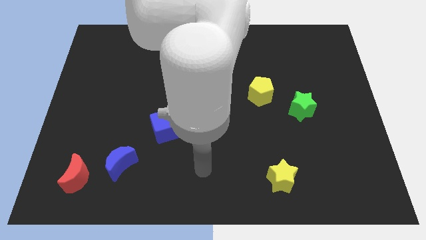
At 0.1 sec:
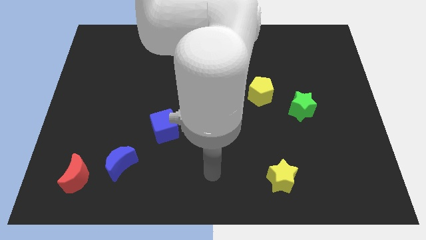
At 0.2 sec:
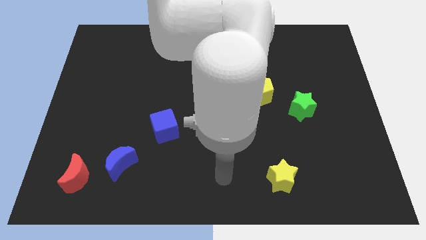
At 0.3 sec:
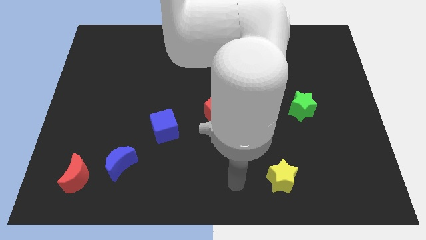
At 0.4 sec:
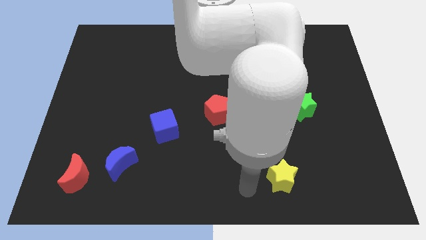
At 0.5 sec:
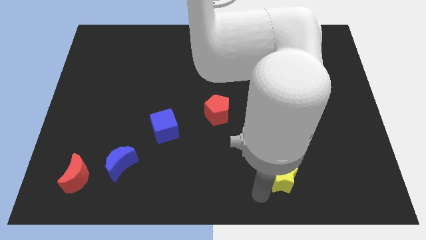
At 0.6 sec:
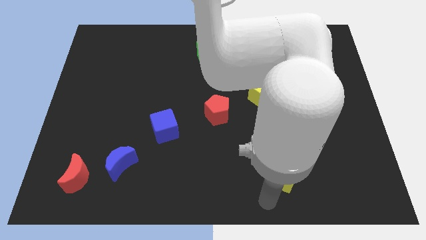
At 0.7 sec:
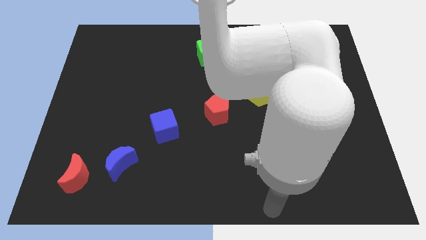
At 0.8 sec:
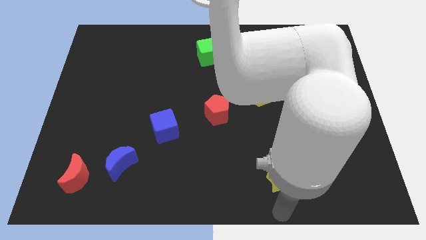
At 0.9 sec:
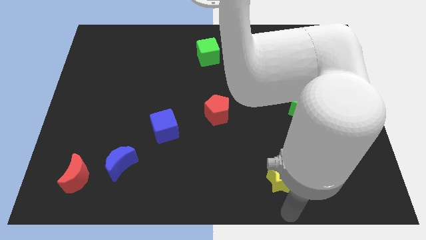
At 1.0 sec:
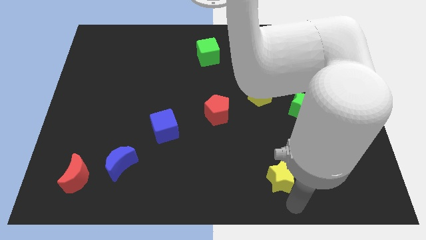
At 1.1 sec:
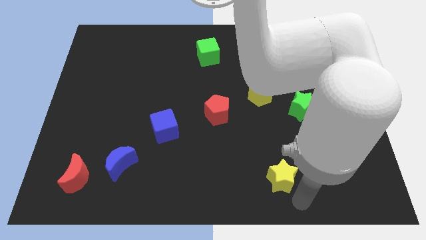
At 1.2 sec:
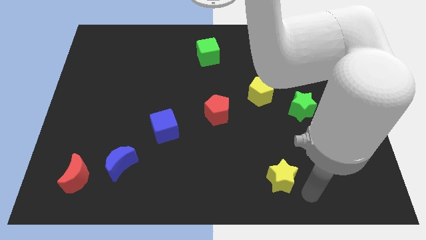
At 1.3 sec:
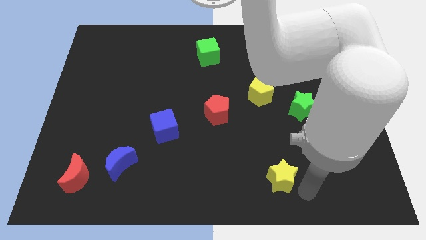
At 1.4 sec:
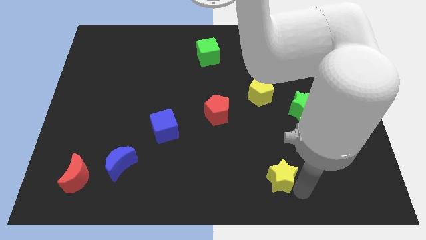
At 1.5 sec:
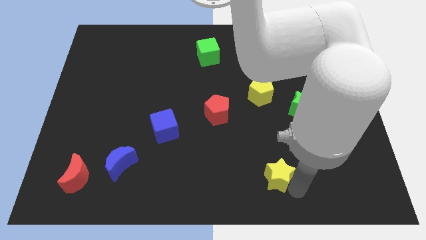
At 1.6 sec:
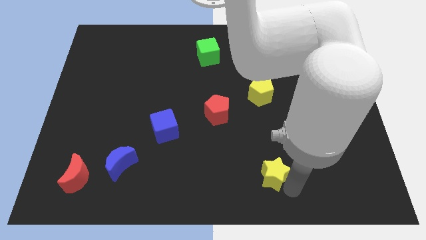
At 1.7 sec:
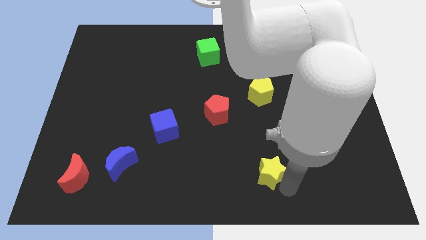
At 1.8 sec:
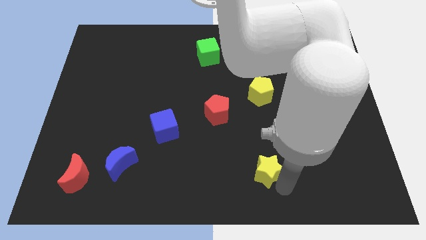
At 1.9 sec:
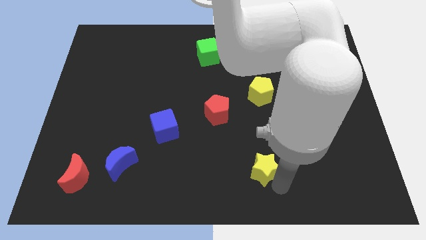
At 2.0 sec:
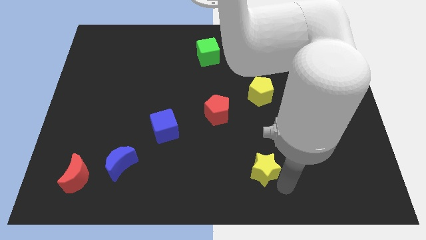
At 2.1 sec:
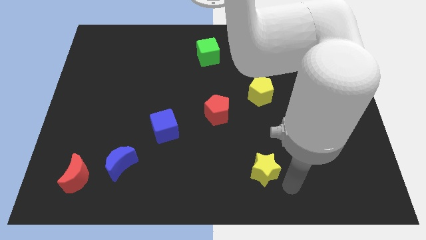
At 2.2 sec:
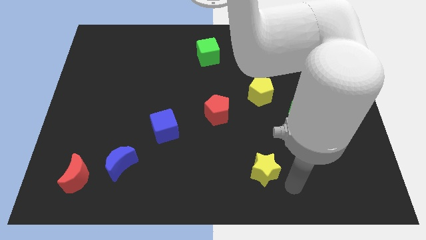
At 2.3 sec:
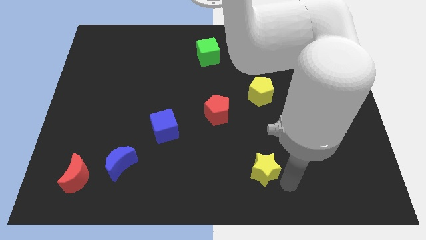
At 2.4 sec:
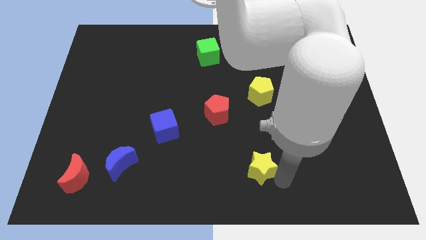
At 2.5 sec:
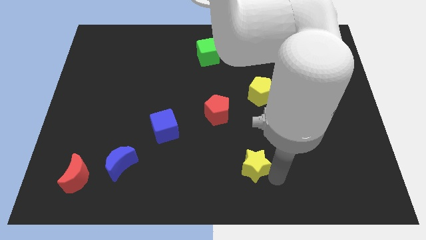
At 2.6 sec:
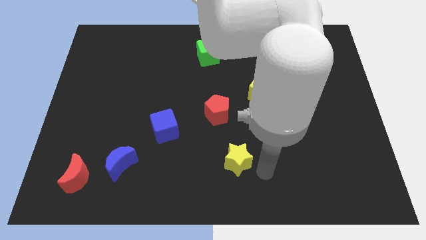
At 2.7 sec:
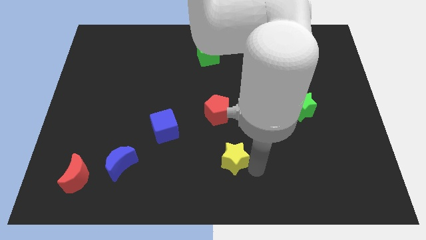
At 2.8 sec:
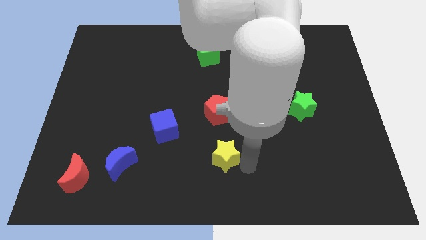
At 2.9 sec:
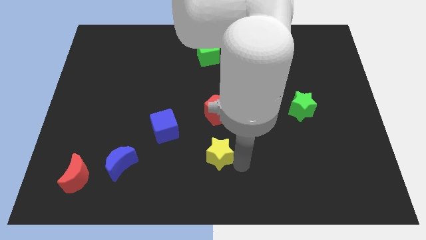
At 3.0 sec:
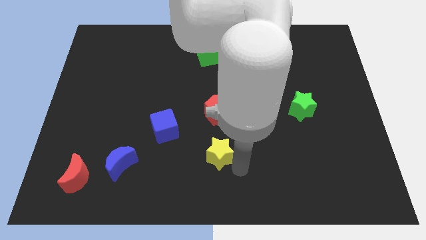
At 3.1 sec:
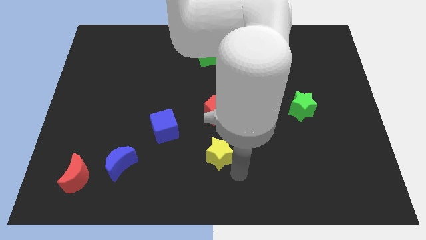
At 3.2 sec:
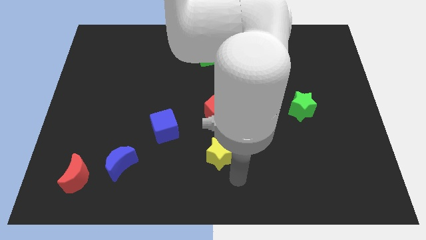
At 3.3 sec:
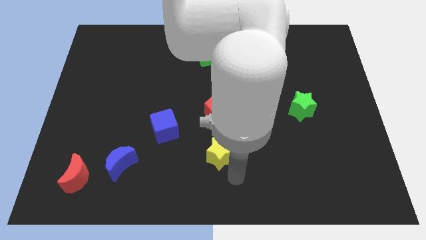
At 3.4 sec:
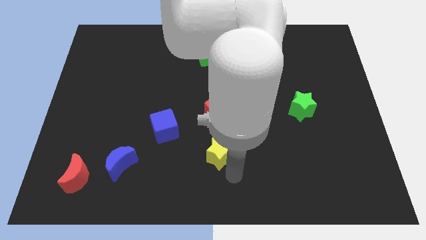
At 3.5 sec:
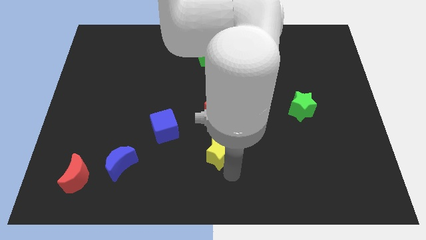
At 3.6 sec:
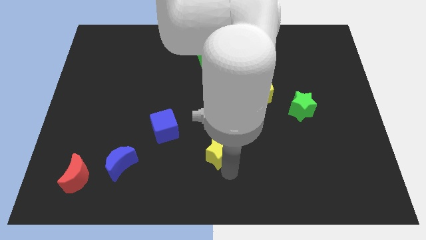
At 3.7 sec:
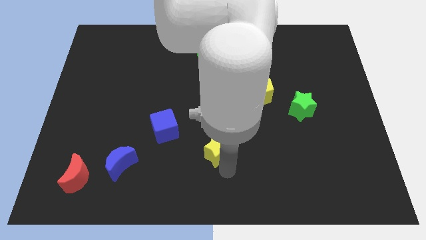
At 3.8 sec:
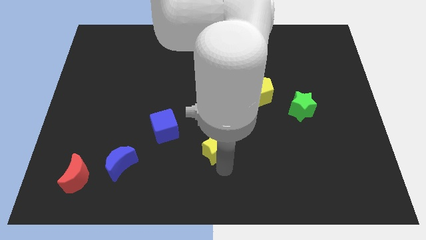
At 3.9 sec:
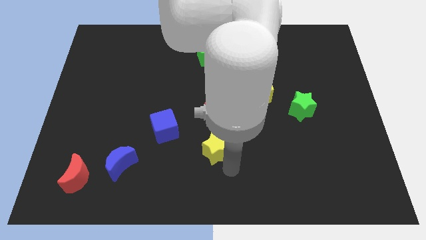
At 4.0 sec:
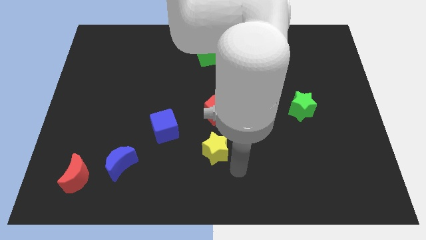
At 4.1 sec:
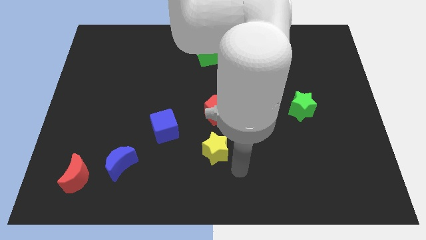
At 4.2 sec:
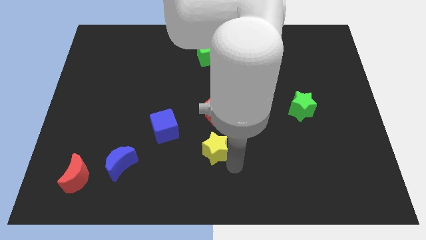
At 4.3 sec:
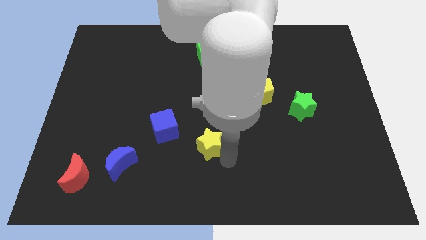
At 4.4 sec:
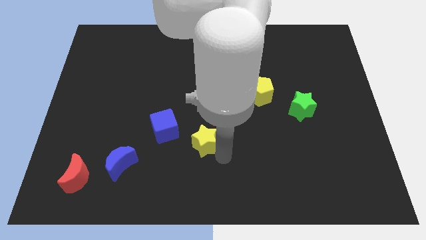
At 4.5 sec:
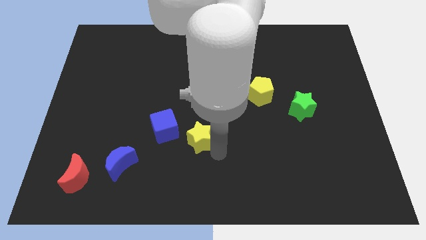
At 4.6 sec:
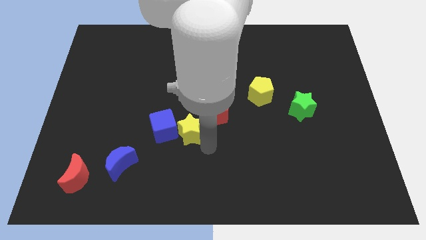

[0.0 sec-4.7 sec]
slide the yellow star up and left

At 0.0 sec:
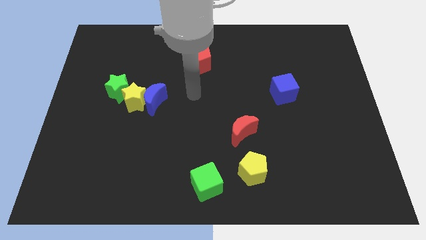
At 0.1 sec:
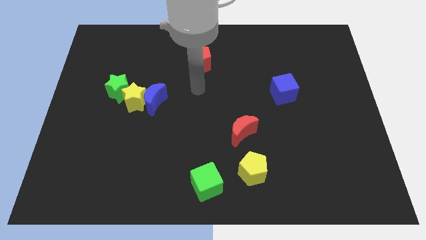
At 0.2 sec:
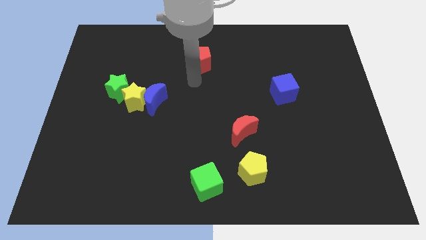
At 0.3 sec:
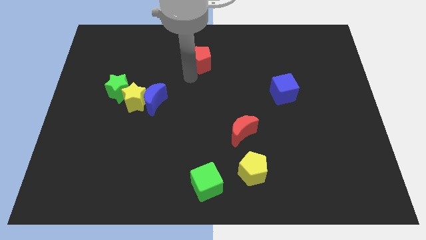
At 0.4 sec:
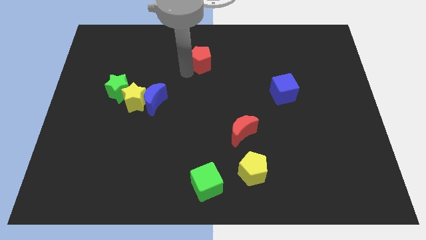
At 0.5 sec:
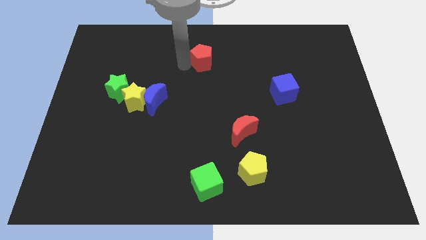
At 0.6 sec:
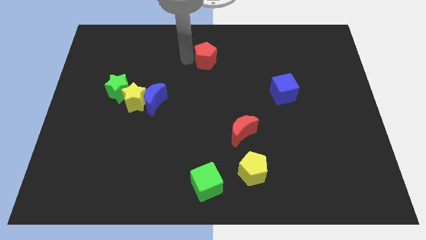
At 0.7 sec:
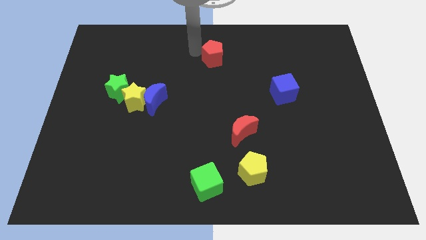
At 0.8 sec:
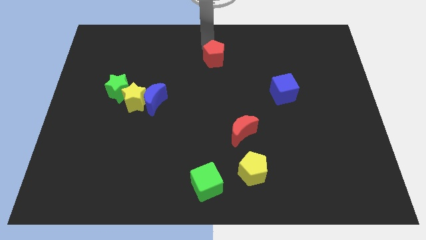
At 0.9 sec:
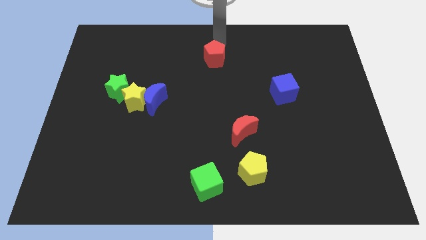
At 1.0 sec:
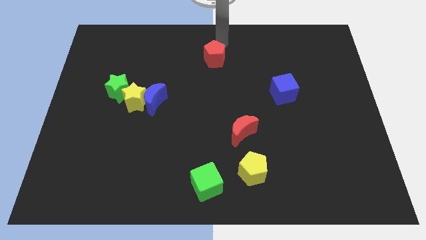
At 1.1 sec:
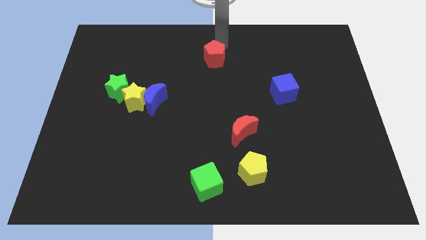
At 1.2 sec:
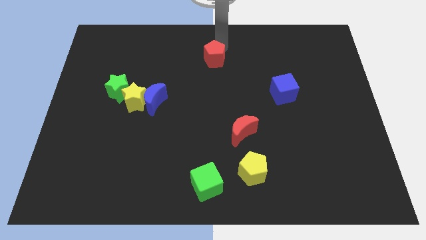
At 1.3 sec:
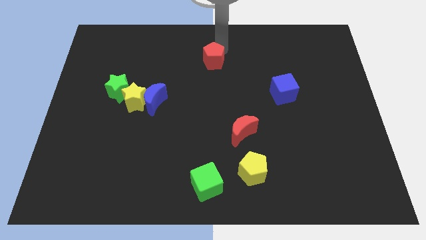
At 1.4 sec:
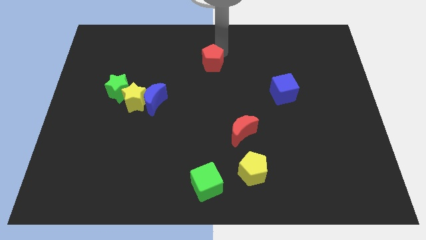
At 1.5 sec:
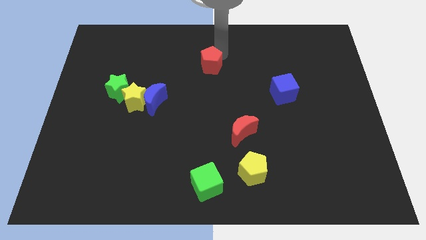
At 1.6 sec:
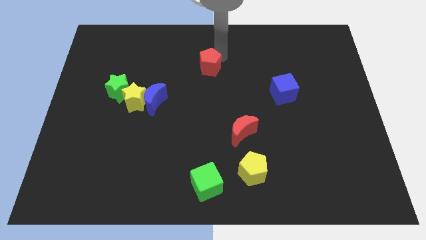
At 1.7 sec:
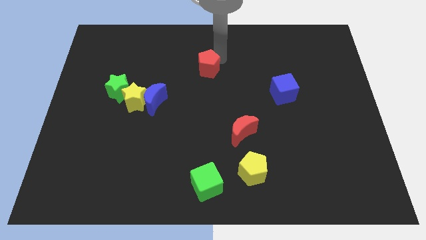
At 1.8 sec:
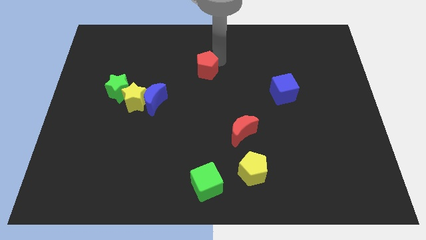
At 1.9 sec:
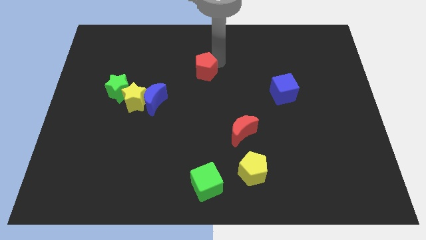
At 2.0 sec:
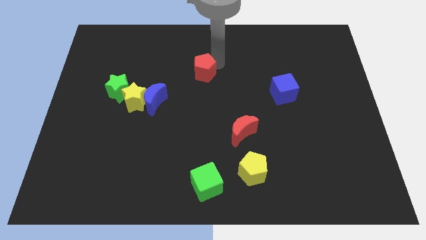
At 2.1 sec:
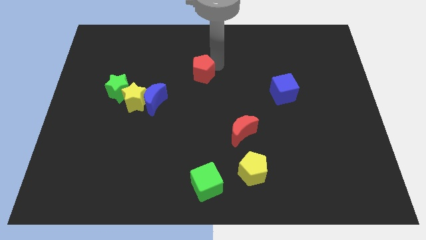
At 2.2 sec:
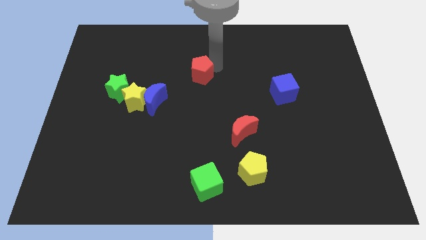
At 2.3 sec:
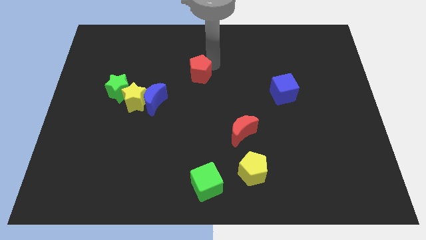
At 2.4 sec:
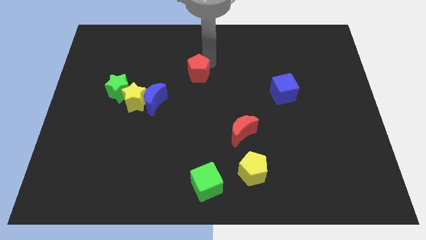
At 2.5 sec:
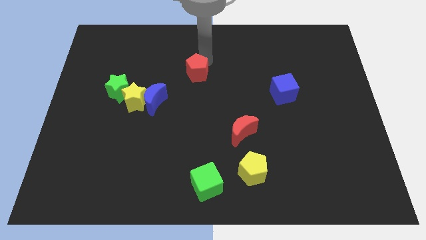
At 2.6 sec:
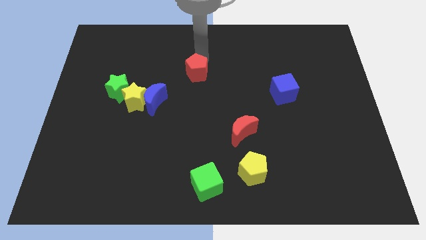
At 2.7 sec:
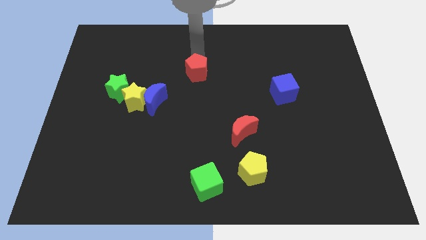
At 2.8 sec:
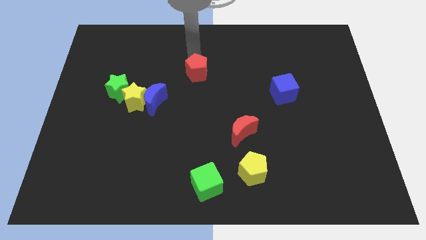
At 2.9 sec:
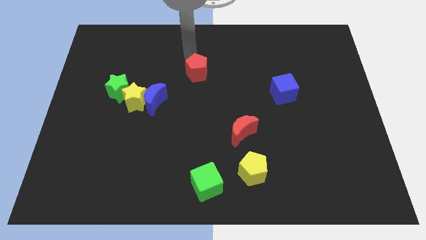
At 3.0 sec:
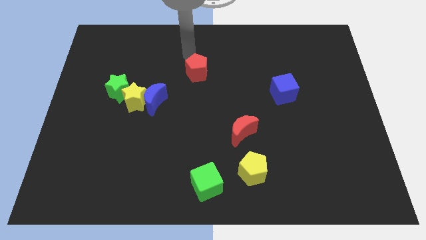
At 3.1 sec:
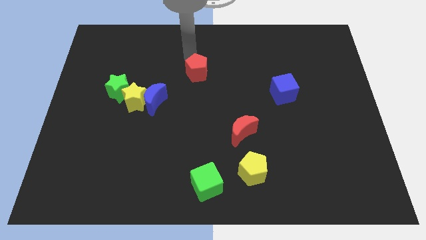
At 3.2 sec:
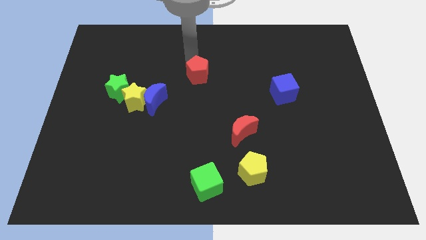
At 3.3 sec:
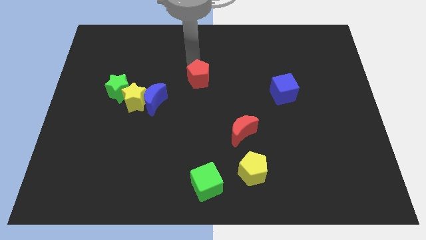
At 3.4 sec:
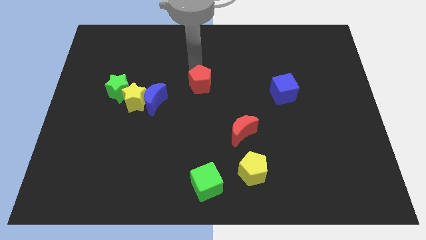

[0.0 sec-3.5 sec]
push the red pentagon downwards slightly
